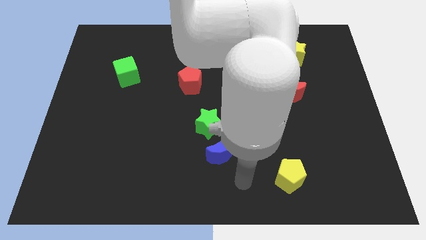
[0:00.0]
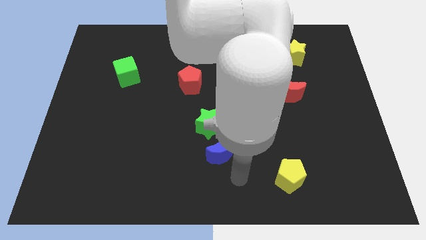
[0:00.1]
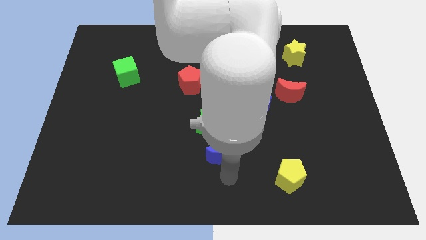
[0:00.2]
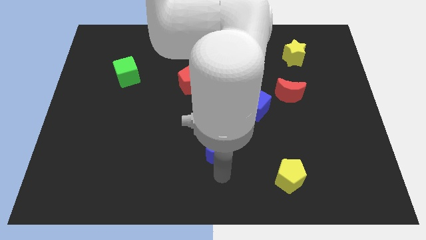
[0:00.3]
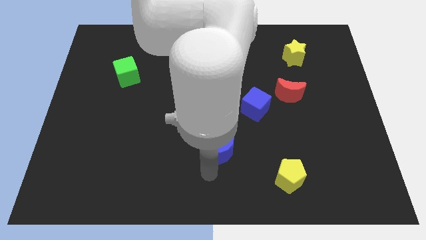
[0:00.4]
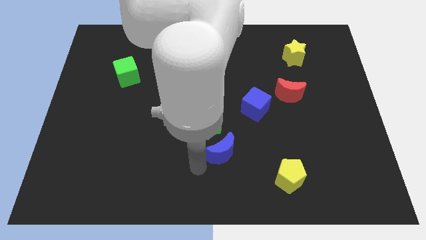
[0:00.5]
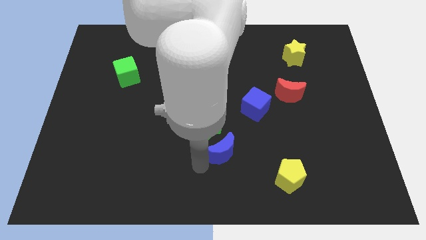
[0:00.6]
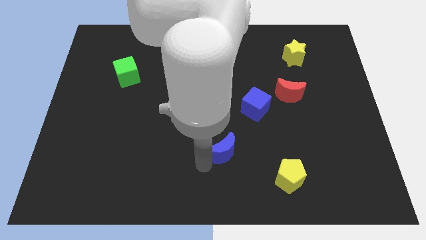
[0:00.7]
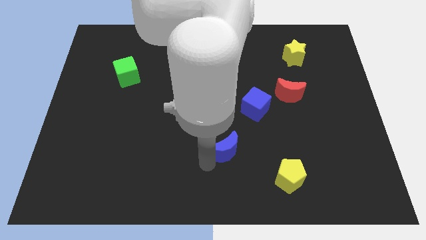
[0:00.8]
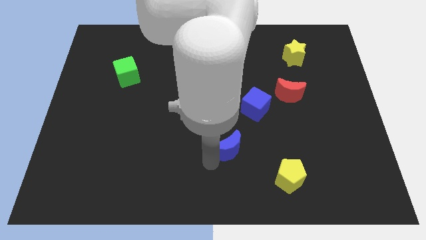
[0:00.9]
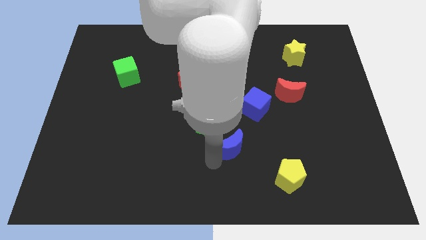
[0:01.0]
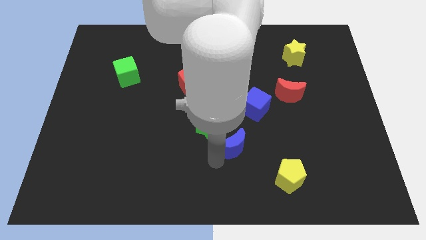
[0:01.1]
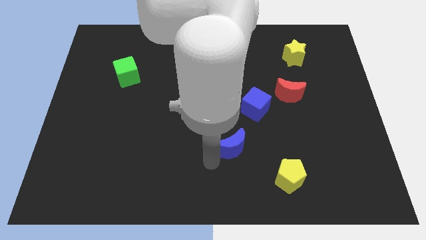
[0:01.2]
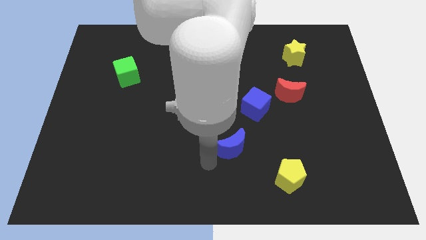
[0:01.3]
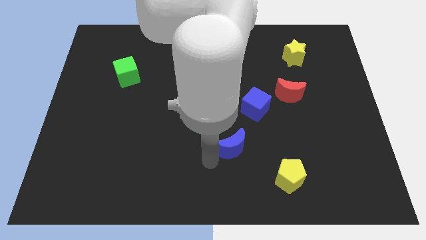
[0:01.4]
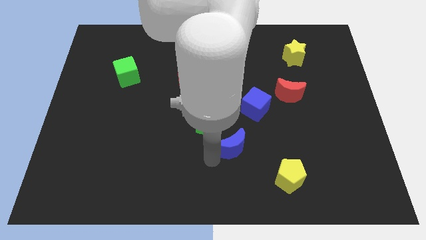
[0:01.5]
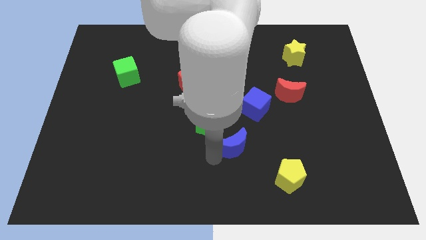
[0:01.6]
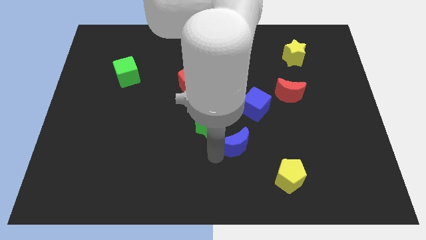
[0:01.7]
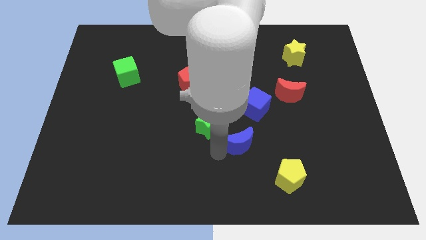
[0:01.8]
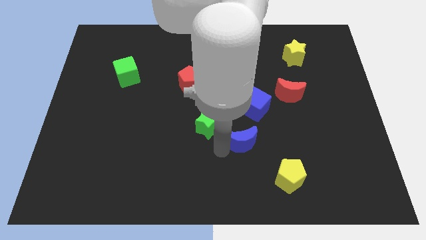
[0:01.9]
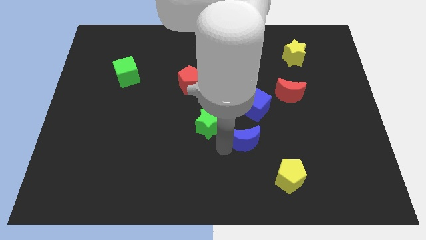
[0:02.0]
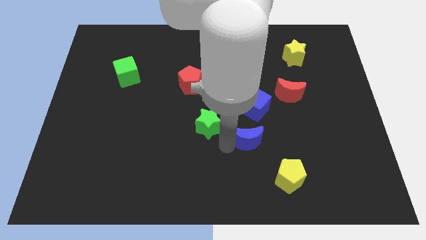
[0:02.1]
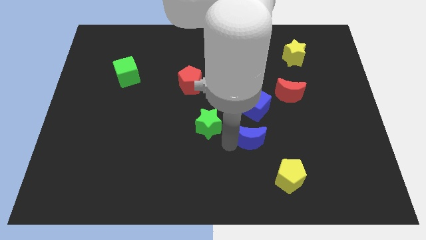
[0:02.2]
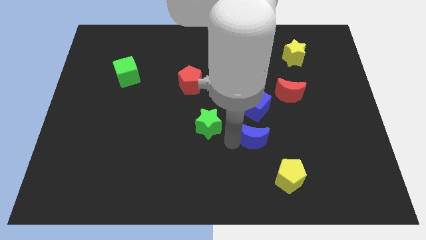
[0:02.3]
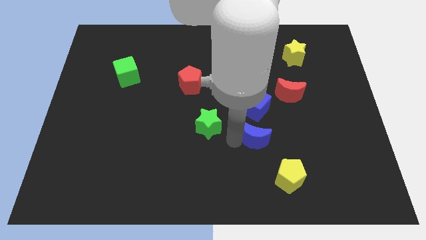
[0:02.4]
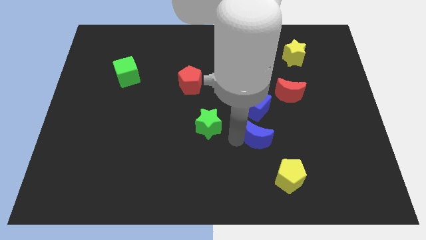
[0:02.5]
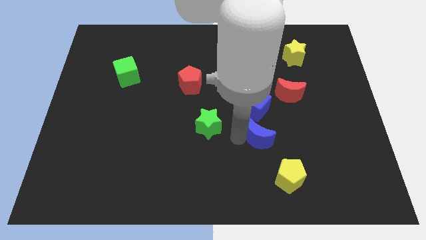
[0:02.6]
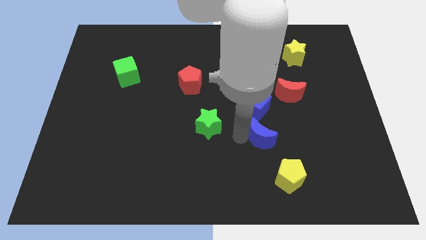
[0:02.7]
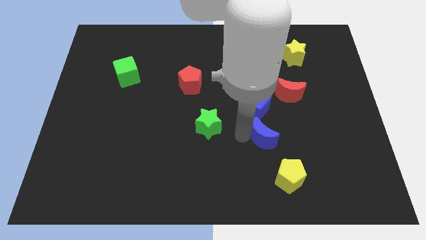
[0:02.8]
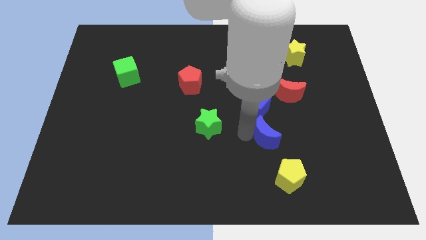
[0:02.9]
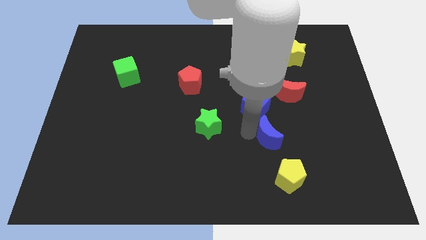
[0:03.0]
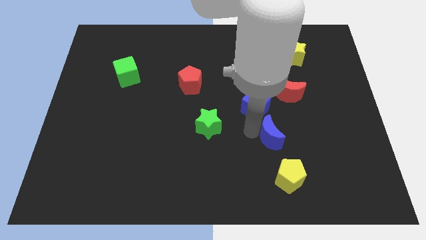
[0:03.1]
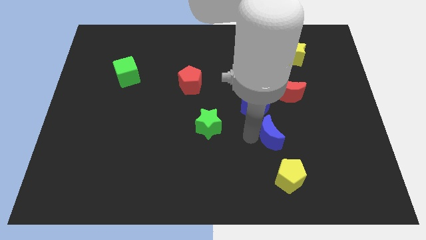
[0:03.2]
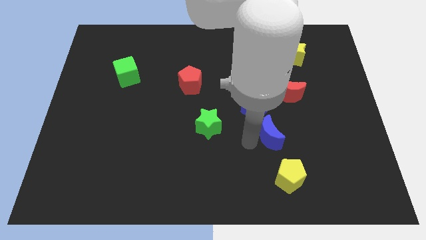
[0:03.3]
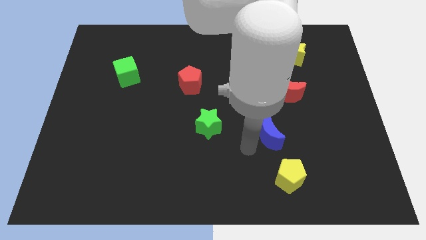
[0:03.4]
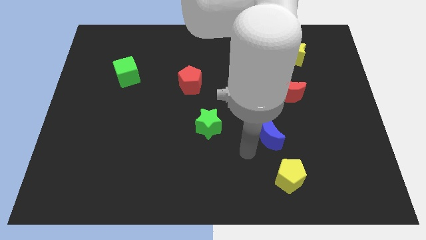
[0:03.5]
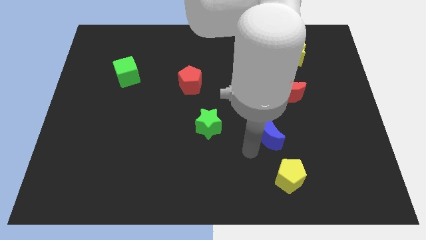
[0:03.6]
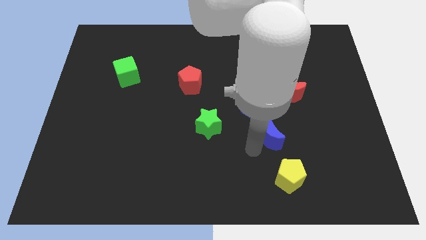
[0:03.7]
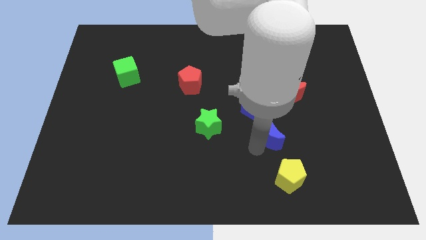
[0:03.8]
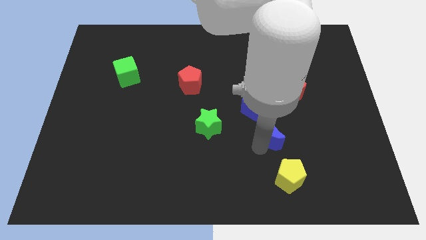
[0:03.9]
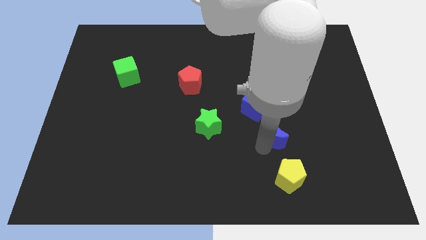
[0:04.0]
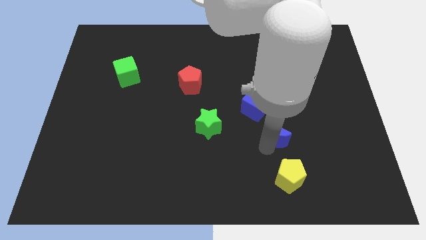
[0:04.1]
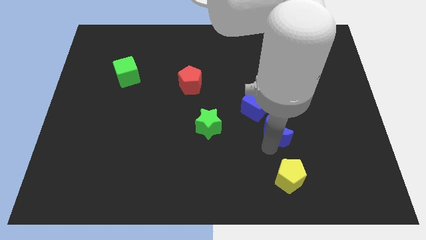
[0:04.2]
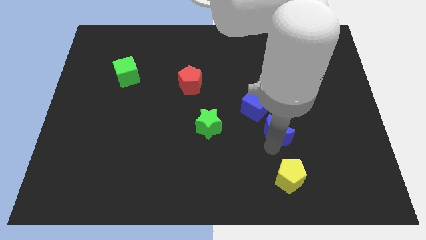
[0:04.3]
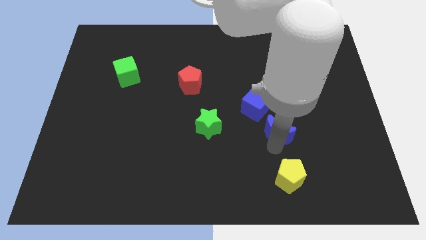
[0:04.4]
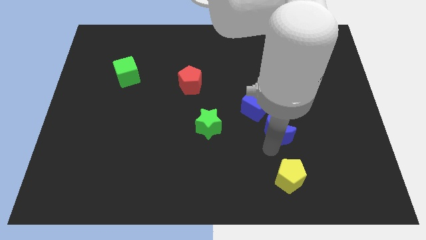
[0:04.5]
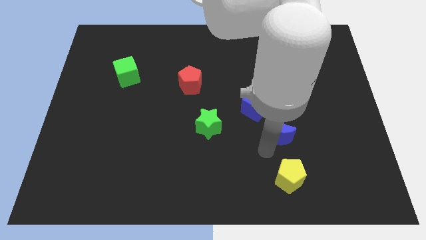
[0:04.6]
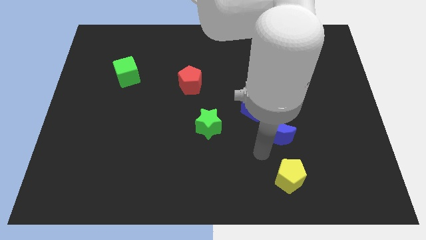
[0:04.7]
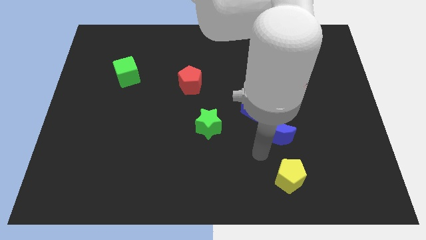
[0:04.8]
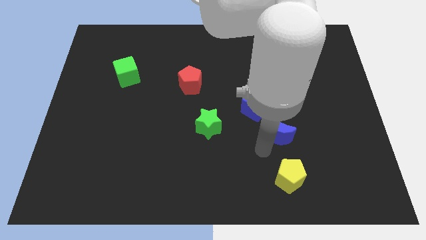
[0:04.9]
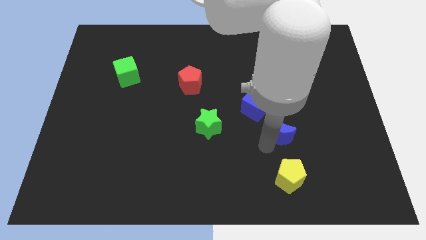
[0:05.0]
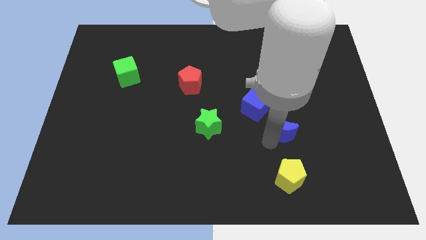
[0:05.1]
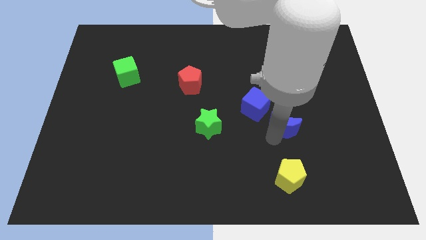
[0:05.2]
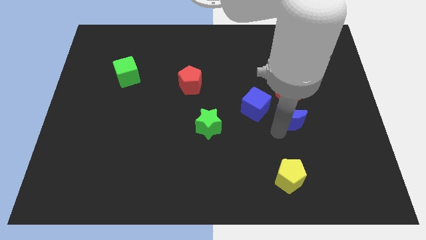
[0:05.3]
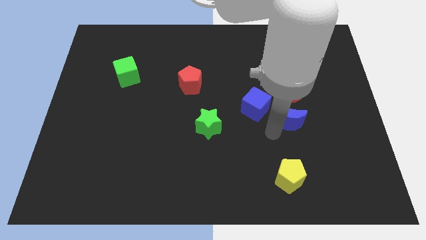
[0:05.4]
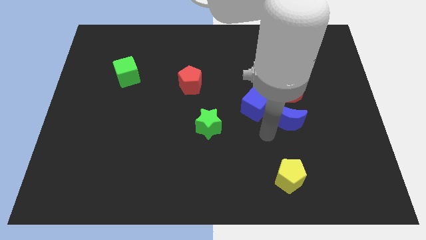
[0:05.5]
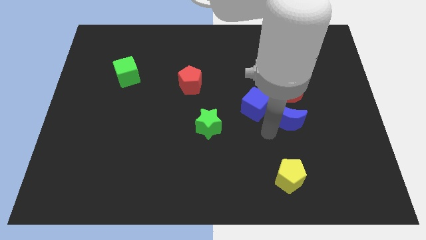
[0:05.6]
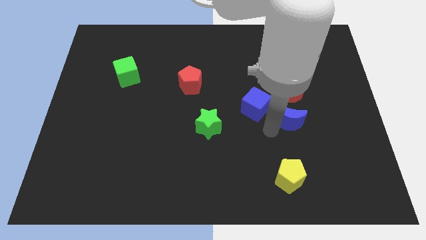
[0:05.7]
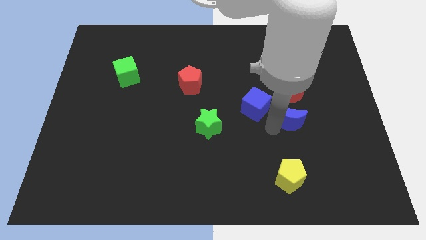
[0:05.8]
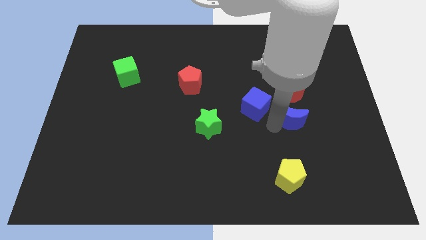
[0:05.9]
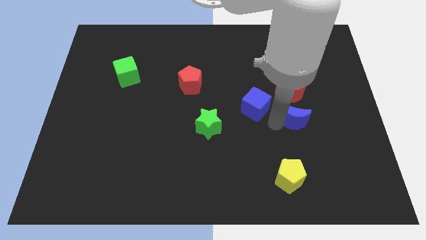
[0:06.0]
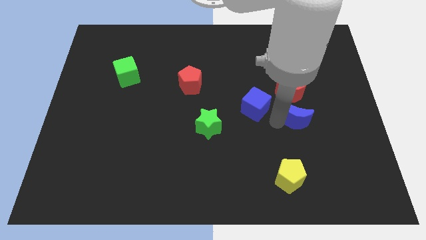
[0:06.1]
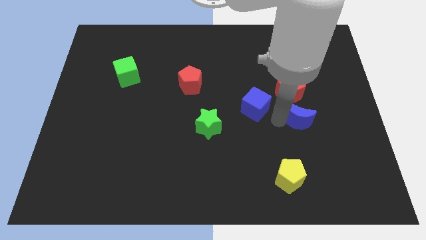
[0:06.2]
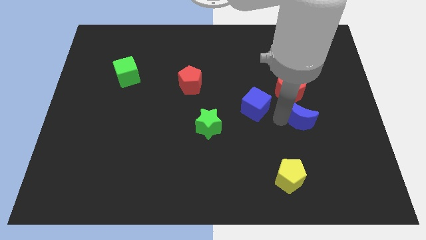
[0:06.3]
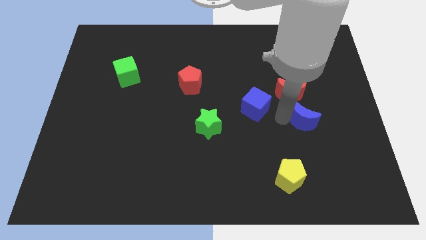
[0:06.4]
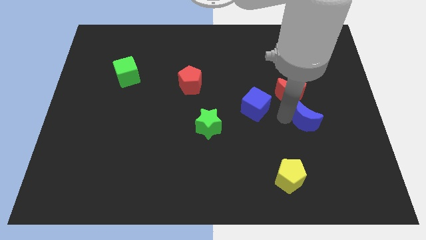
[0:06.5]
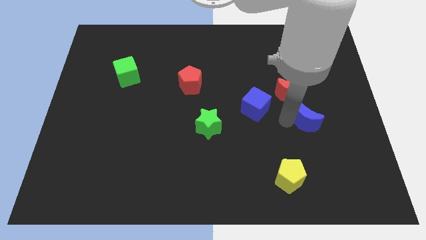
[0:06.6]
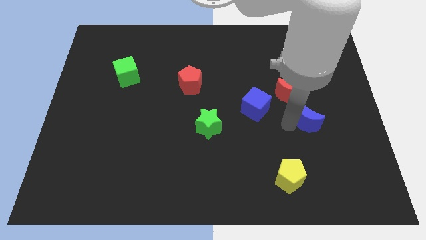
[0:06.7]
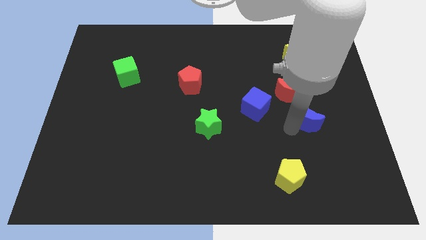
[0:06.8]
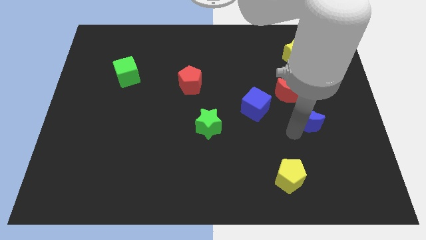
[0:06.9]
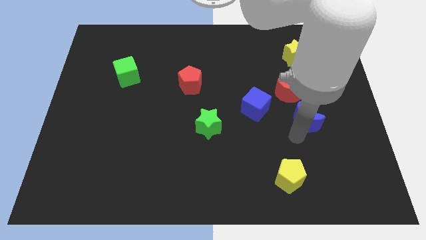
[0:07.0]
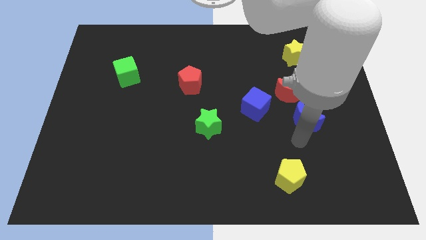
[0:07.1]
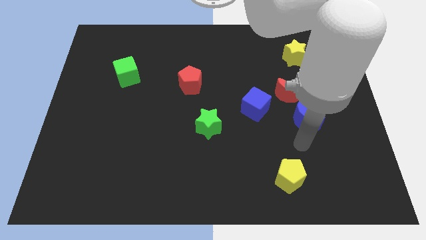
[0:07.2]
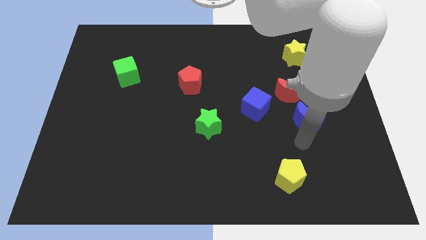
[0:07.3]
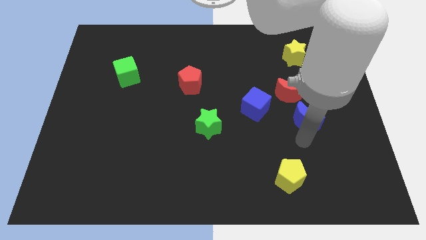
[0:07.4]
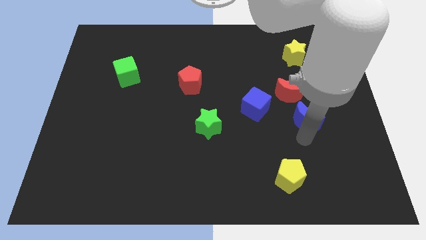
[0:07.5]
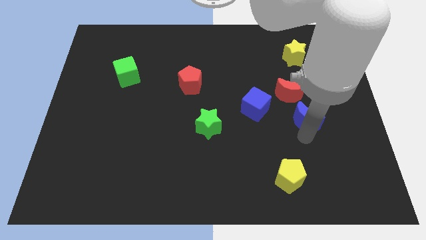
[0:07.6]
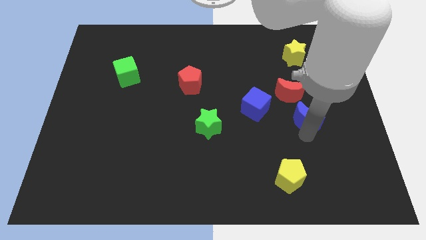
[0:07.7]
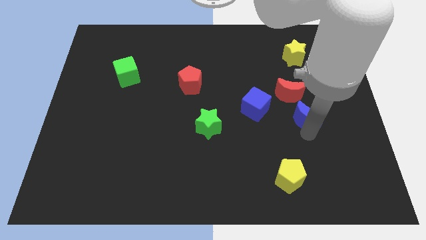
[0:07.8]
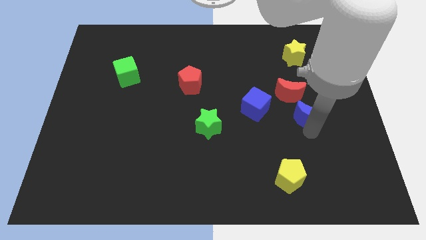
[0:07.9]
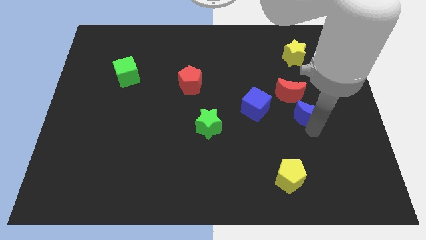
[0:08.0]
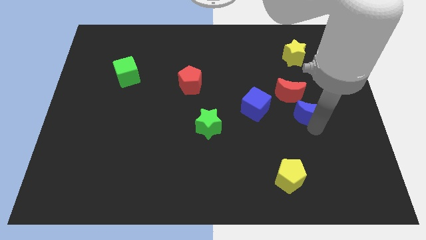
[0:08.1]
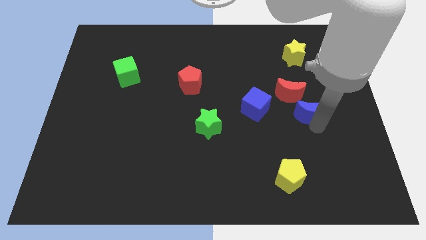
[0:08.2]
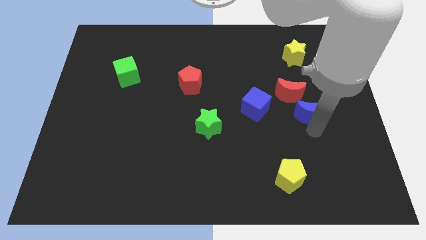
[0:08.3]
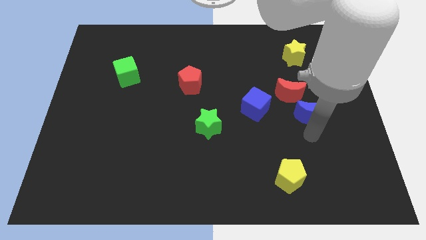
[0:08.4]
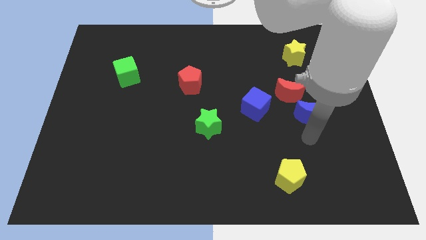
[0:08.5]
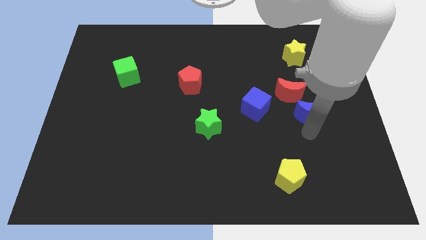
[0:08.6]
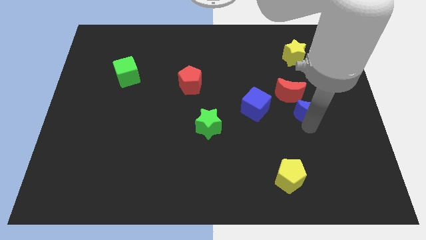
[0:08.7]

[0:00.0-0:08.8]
push the blue moon diagonally upwards and right
